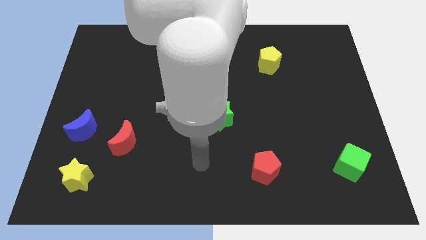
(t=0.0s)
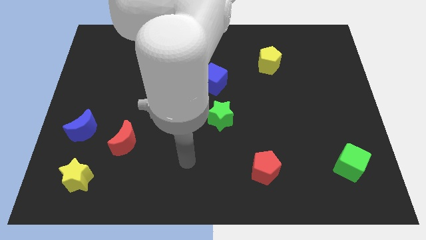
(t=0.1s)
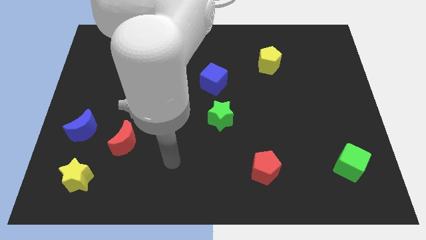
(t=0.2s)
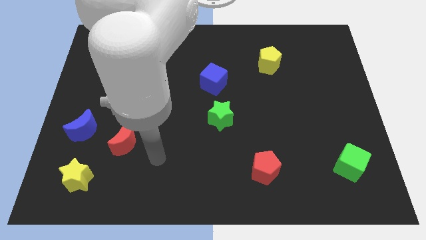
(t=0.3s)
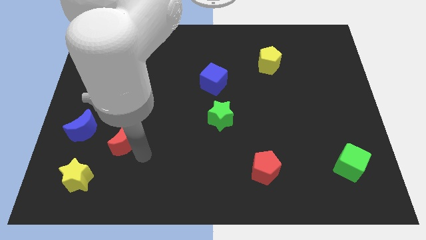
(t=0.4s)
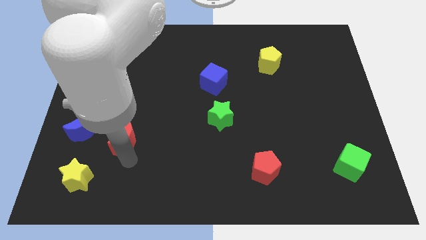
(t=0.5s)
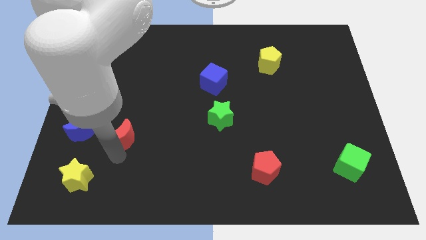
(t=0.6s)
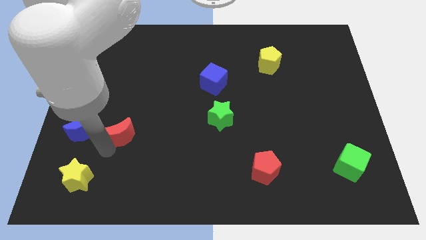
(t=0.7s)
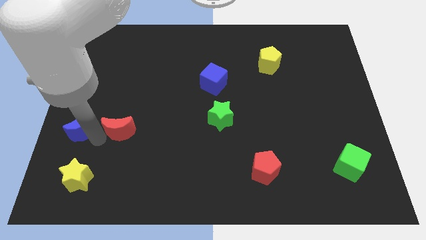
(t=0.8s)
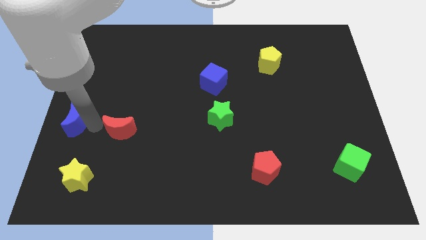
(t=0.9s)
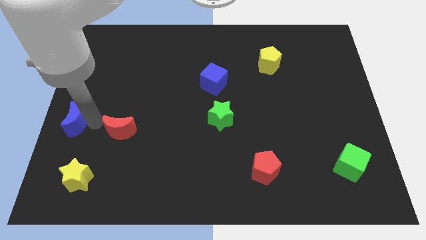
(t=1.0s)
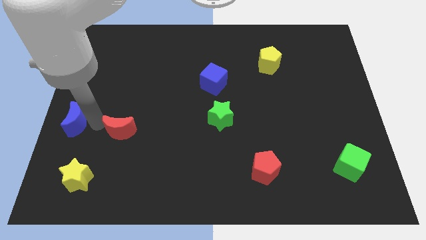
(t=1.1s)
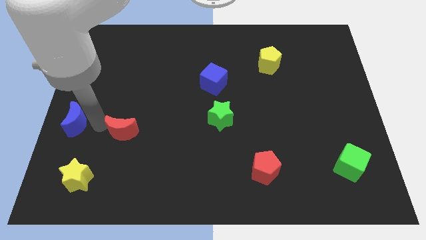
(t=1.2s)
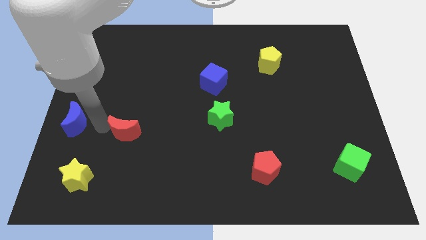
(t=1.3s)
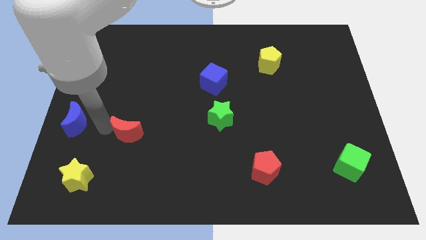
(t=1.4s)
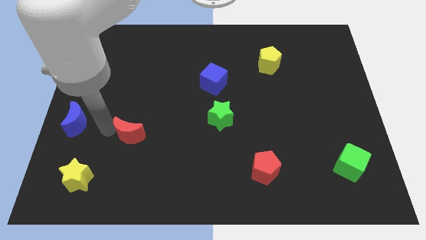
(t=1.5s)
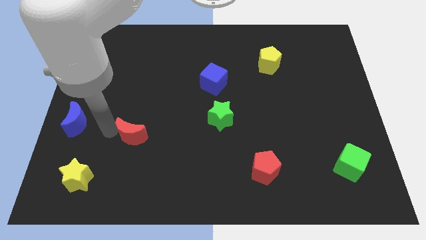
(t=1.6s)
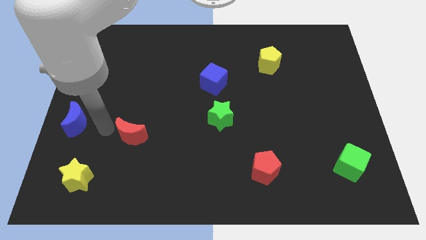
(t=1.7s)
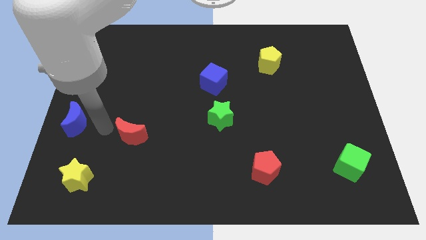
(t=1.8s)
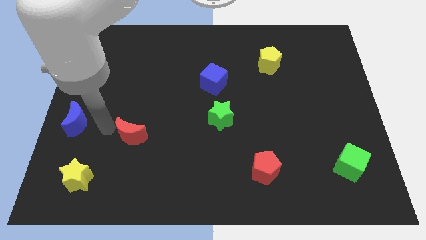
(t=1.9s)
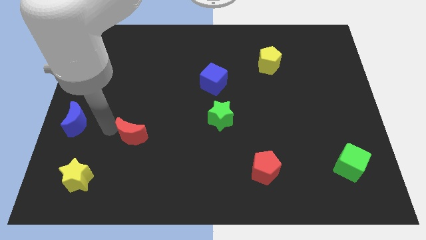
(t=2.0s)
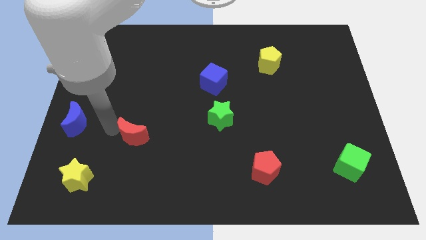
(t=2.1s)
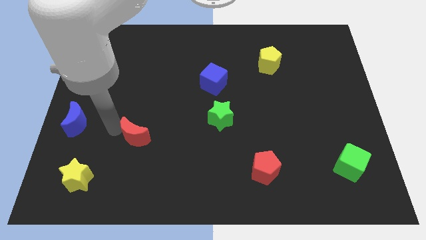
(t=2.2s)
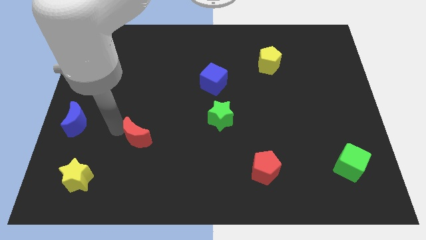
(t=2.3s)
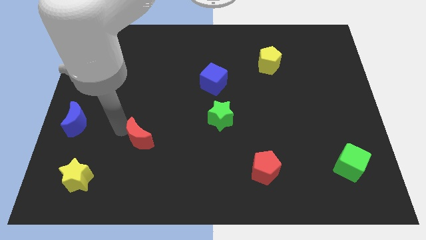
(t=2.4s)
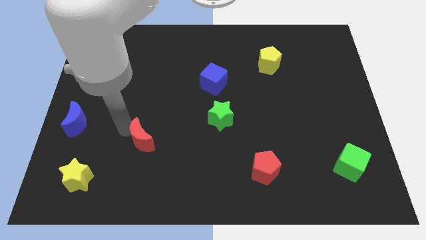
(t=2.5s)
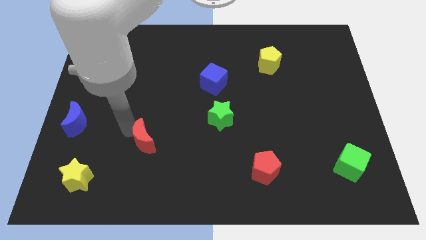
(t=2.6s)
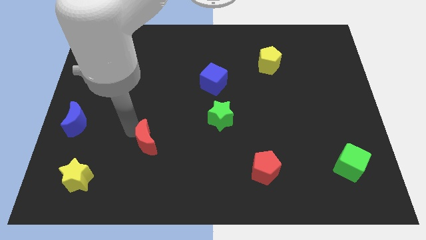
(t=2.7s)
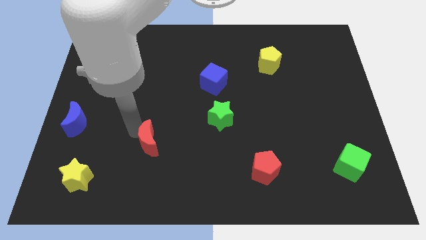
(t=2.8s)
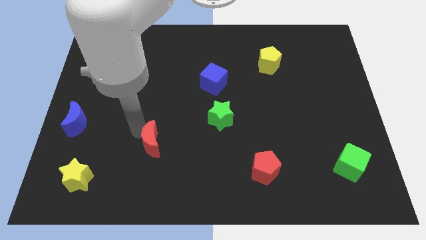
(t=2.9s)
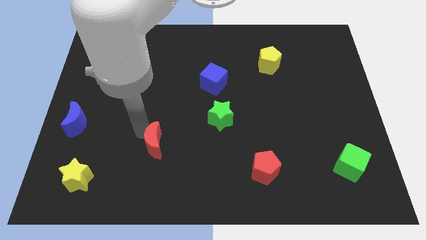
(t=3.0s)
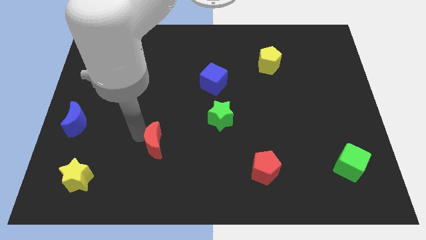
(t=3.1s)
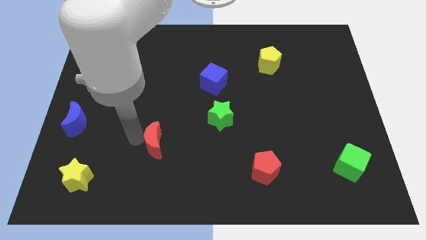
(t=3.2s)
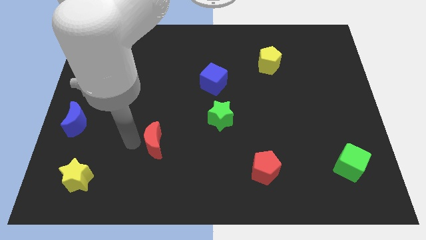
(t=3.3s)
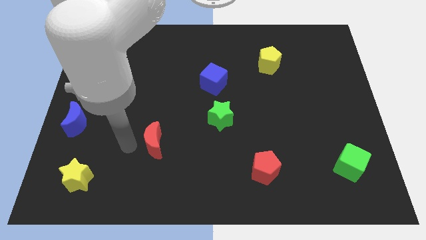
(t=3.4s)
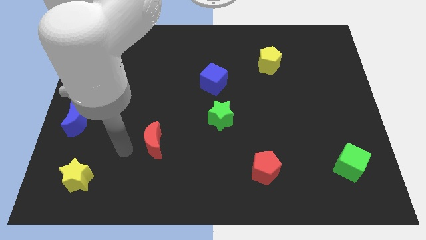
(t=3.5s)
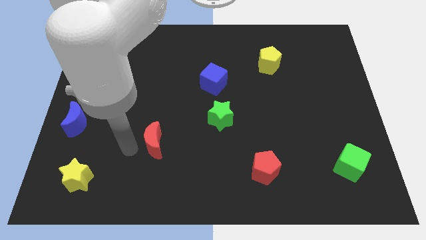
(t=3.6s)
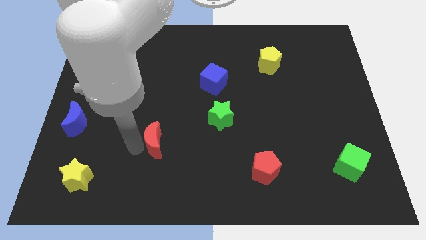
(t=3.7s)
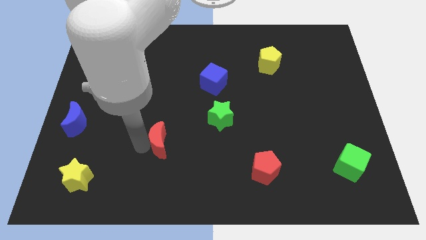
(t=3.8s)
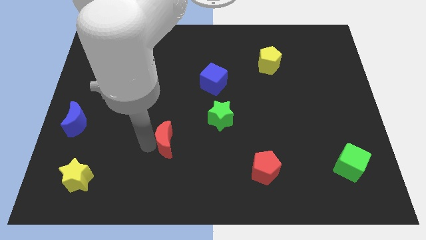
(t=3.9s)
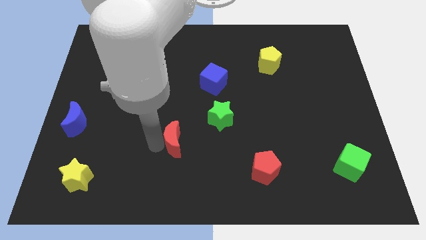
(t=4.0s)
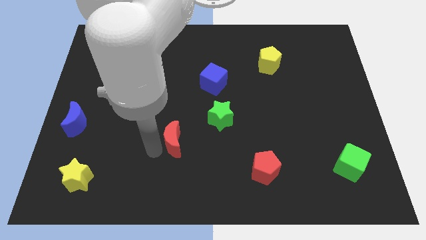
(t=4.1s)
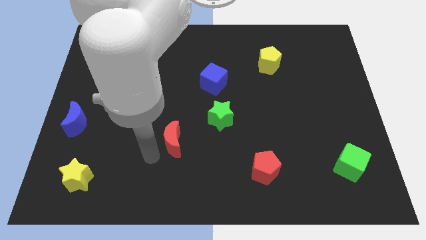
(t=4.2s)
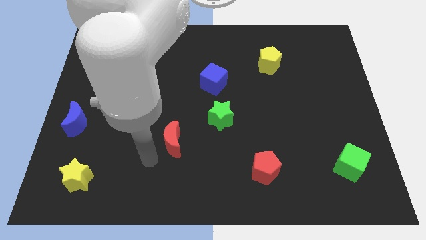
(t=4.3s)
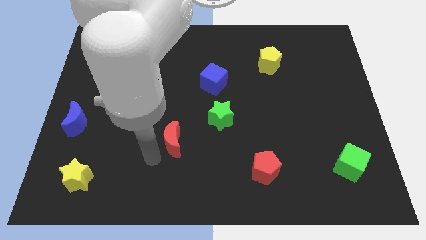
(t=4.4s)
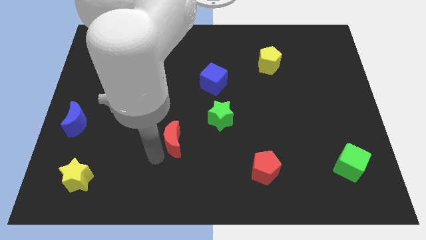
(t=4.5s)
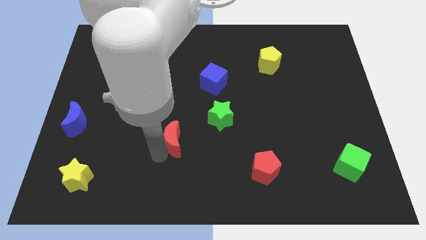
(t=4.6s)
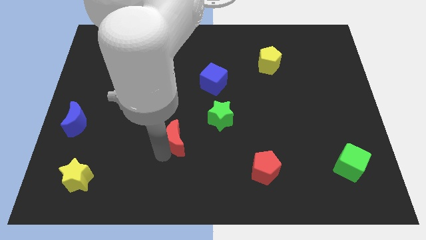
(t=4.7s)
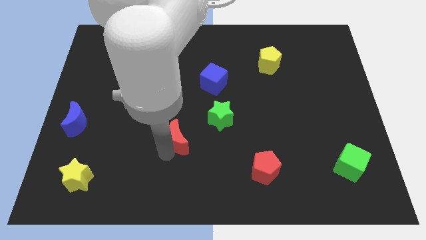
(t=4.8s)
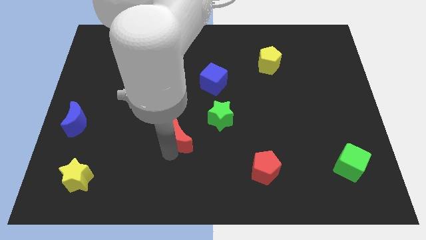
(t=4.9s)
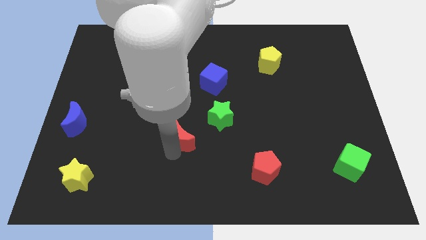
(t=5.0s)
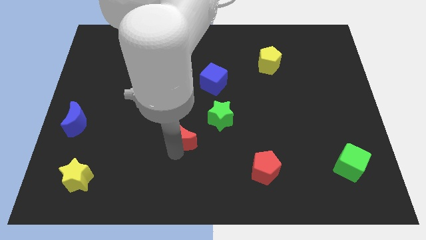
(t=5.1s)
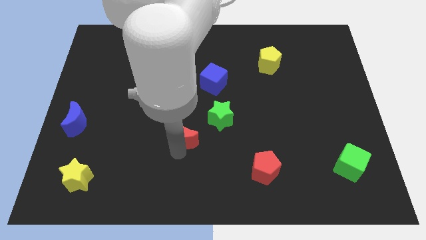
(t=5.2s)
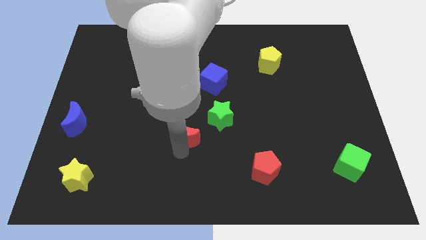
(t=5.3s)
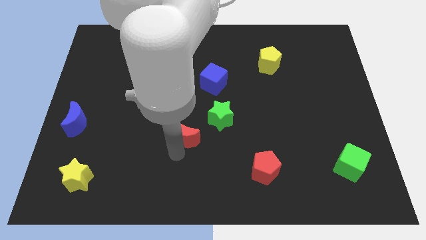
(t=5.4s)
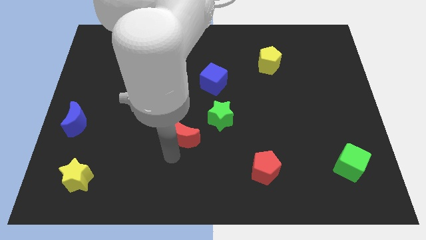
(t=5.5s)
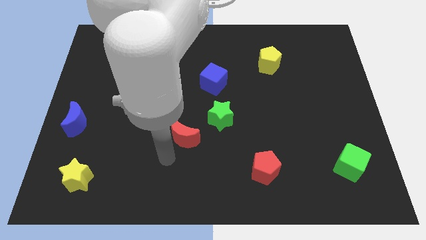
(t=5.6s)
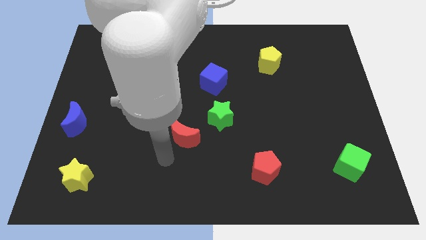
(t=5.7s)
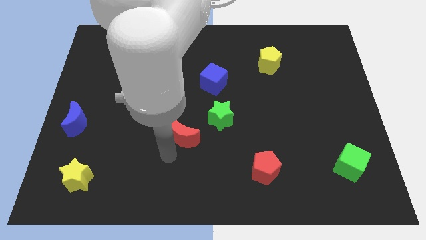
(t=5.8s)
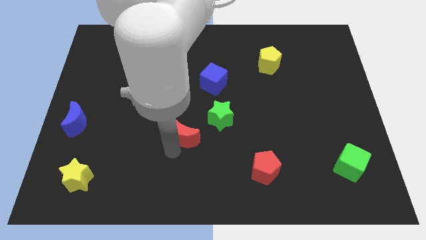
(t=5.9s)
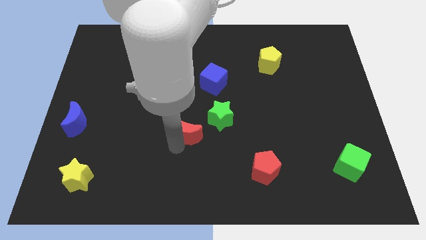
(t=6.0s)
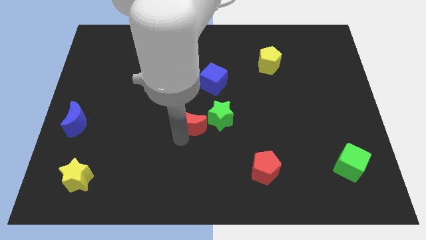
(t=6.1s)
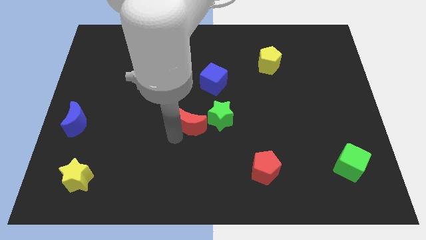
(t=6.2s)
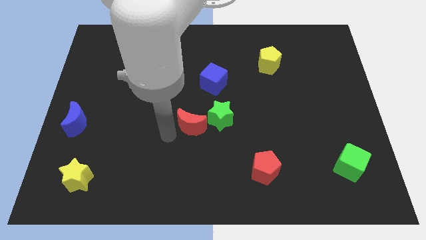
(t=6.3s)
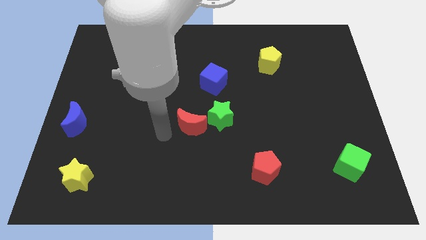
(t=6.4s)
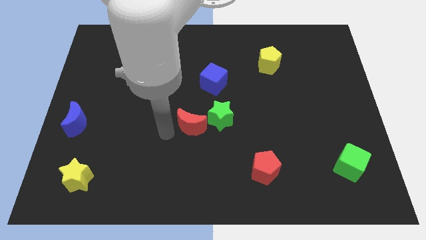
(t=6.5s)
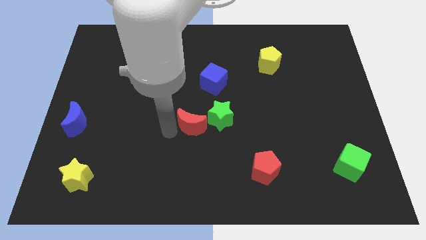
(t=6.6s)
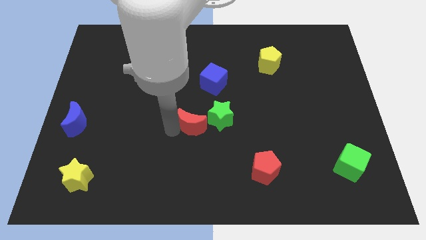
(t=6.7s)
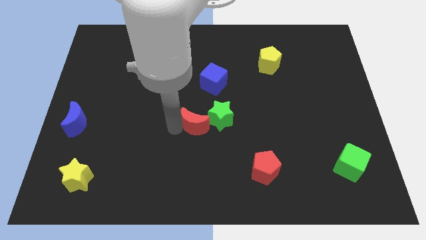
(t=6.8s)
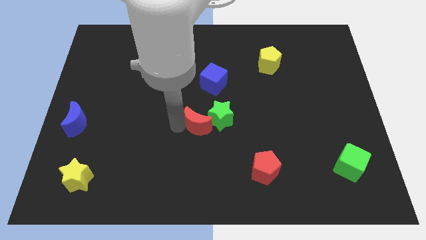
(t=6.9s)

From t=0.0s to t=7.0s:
move the red moon to the green star

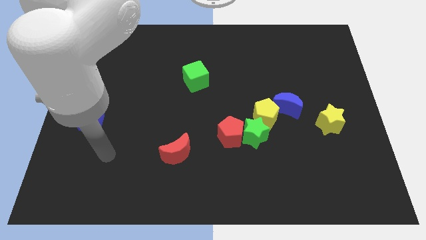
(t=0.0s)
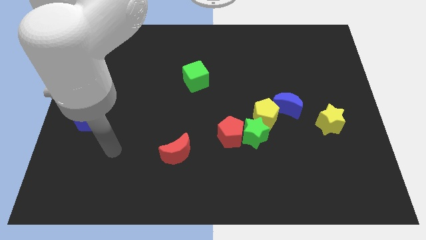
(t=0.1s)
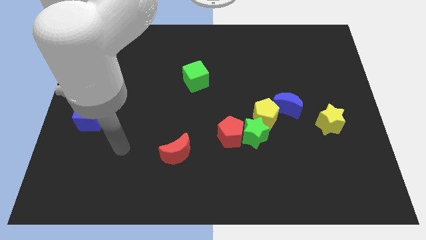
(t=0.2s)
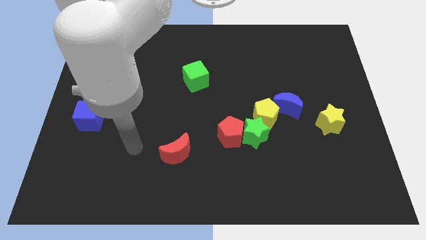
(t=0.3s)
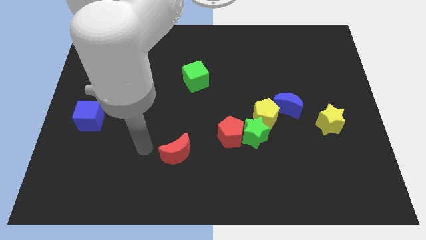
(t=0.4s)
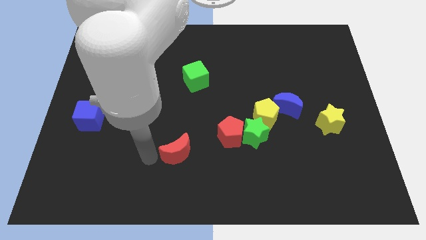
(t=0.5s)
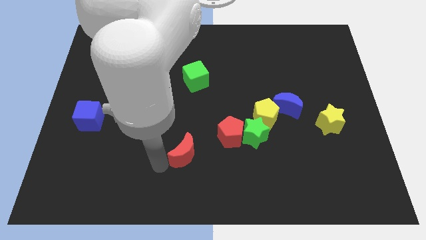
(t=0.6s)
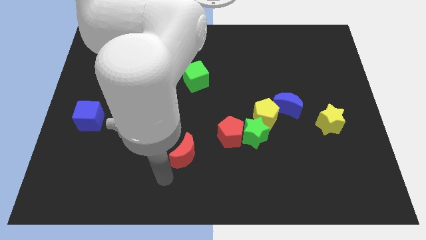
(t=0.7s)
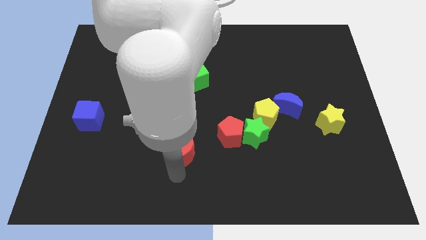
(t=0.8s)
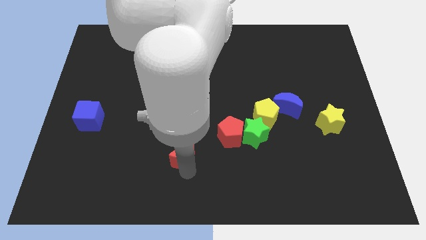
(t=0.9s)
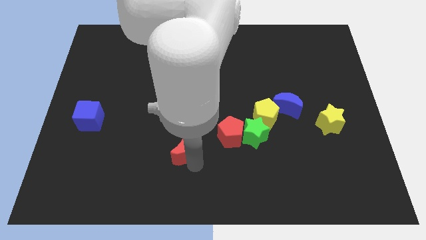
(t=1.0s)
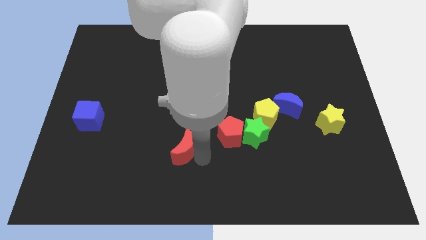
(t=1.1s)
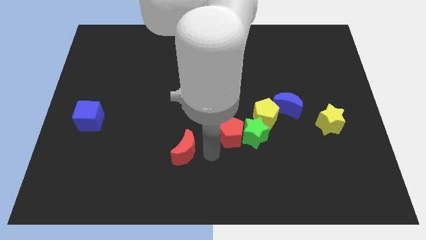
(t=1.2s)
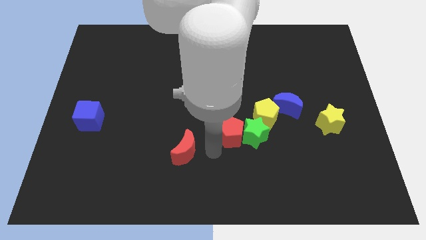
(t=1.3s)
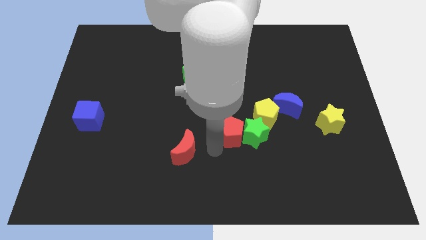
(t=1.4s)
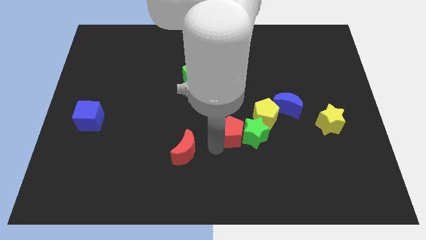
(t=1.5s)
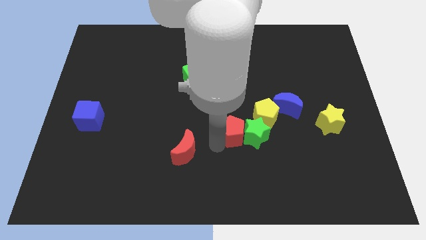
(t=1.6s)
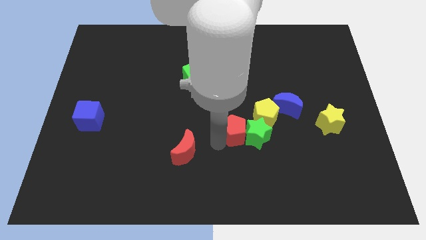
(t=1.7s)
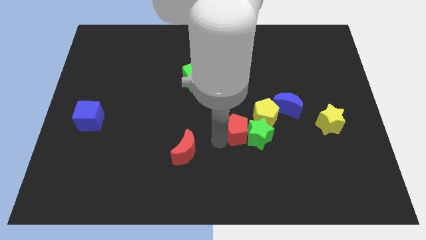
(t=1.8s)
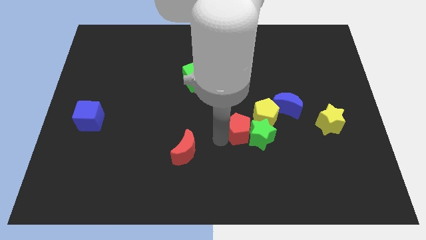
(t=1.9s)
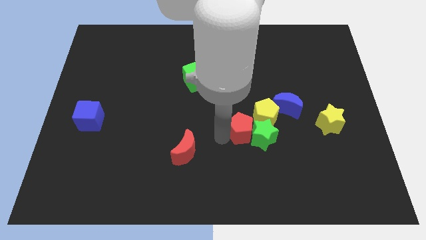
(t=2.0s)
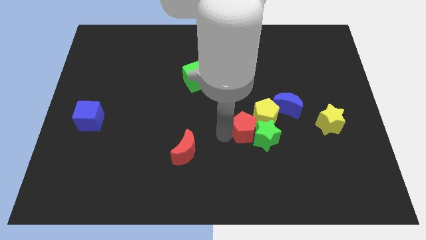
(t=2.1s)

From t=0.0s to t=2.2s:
slide the red pentagon next to the yellow pentagon
